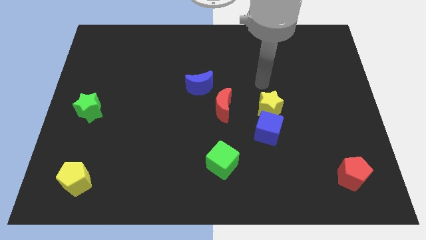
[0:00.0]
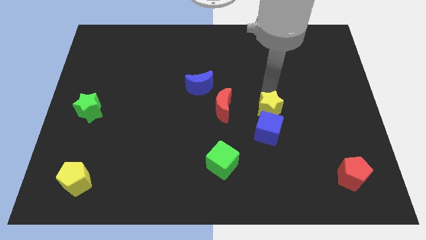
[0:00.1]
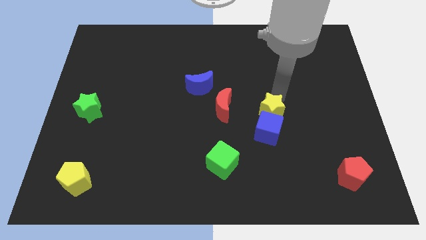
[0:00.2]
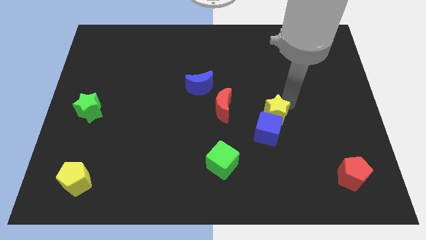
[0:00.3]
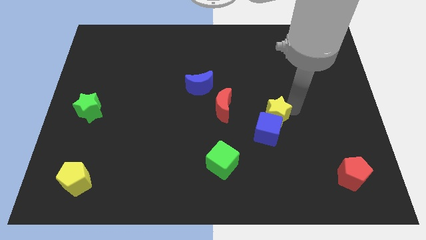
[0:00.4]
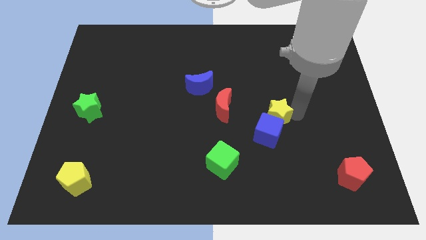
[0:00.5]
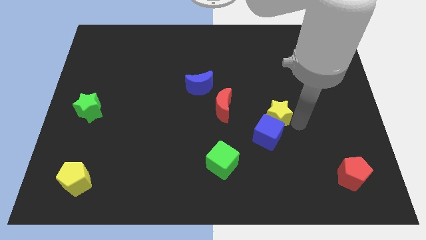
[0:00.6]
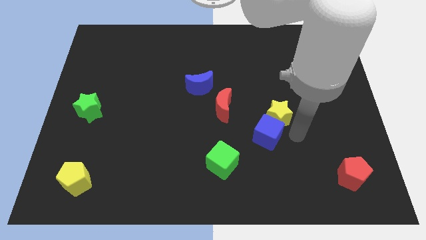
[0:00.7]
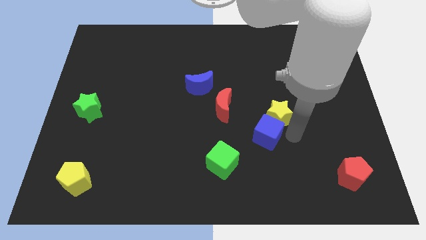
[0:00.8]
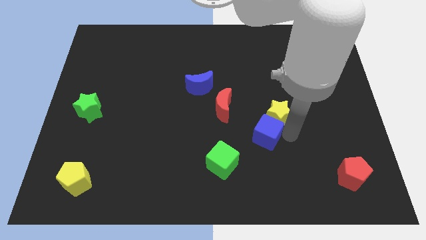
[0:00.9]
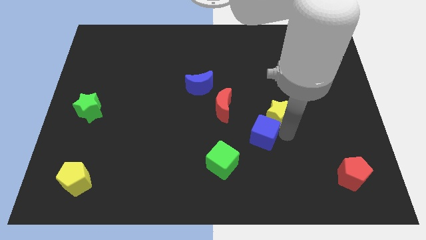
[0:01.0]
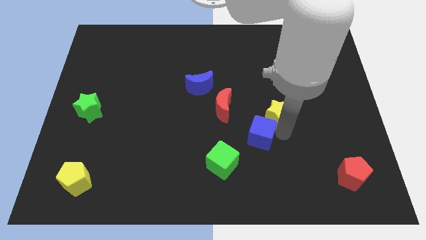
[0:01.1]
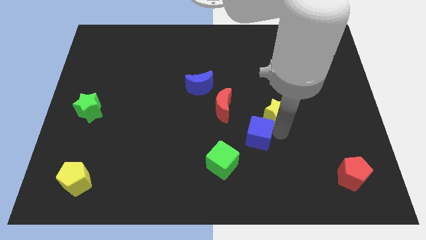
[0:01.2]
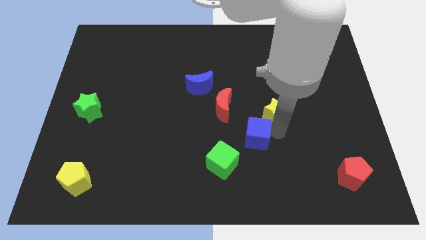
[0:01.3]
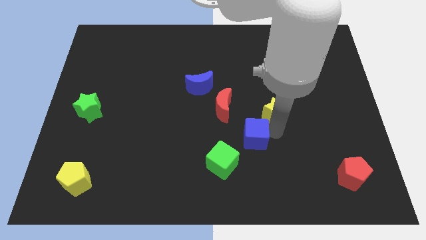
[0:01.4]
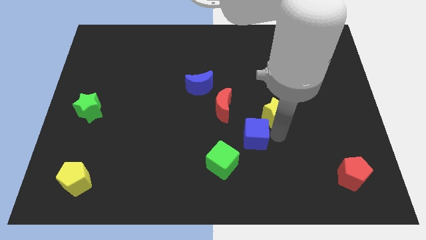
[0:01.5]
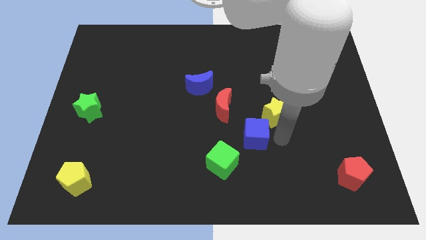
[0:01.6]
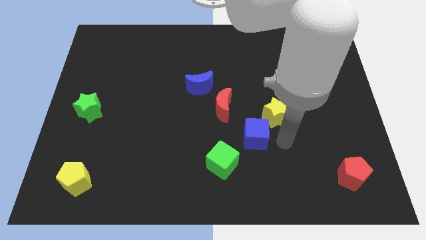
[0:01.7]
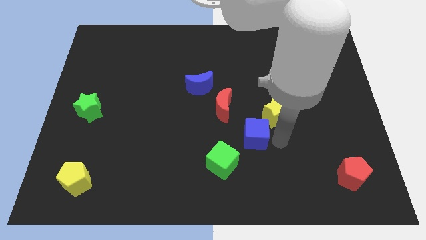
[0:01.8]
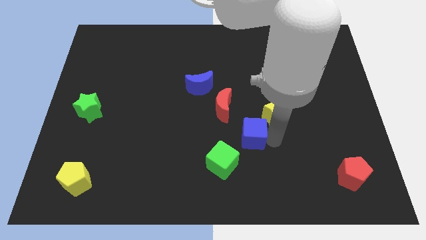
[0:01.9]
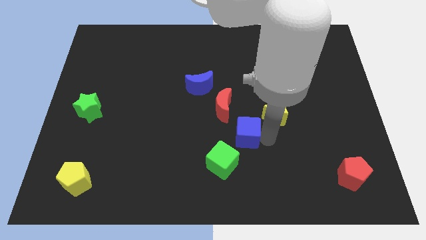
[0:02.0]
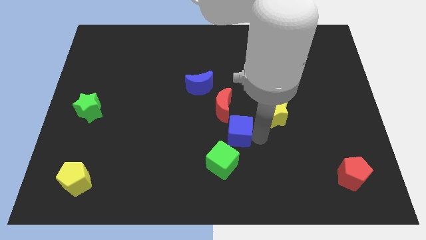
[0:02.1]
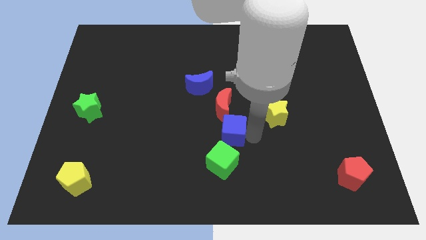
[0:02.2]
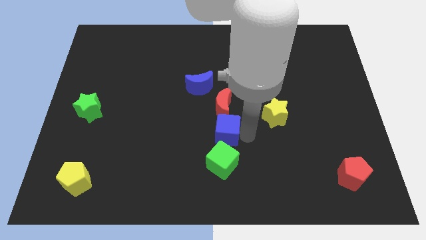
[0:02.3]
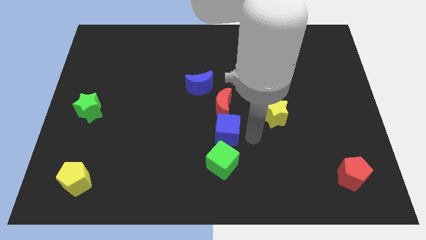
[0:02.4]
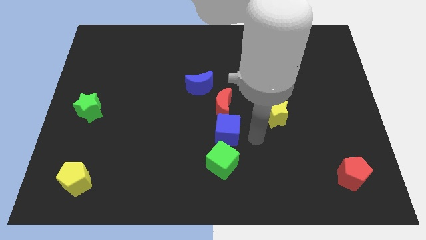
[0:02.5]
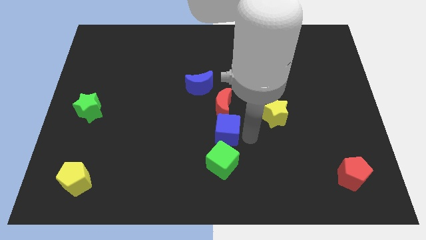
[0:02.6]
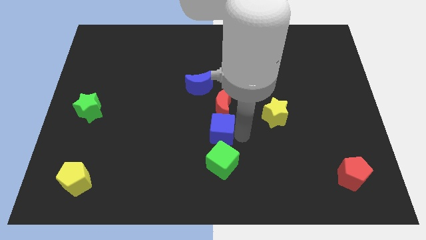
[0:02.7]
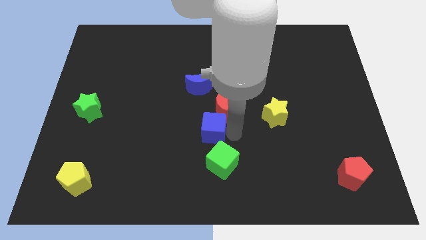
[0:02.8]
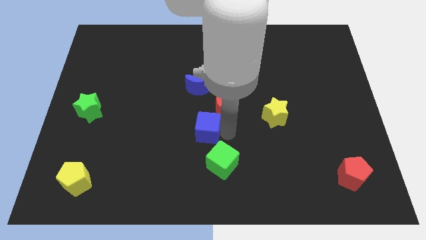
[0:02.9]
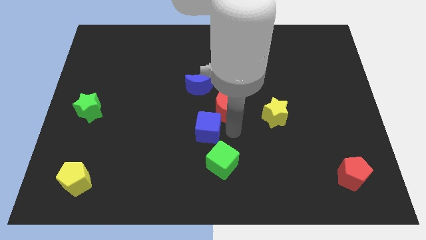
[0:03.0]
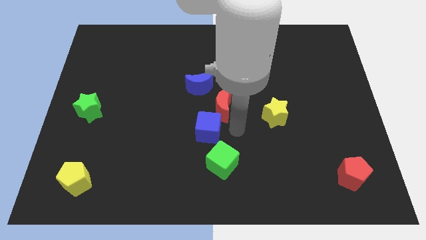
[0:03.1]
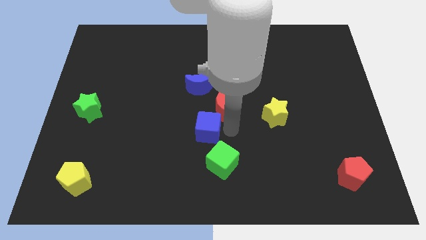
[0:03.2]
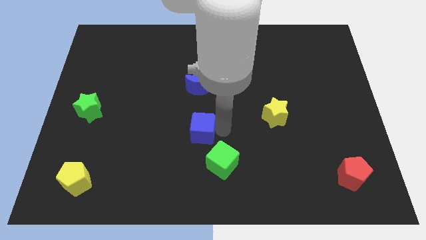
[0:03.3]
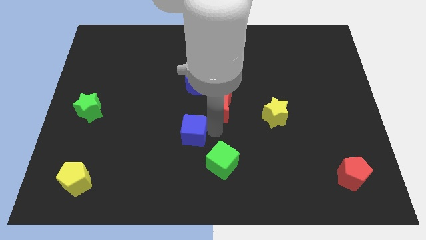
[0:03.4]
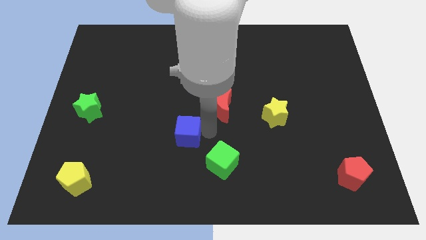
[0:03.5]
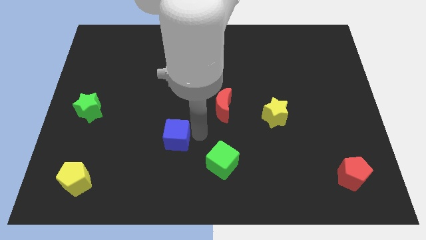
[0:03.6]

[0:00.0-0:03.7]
slide the blue cube left

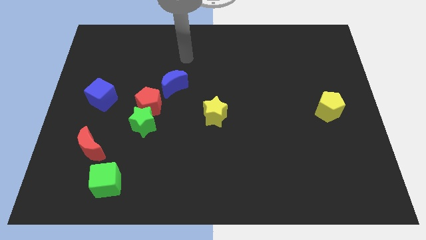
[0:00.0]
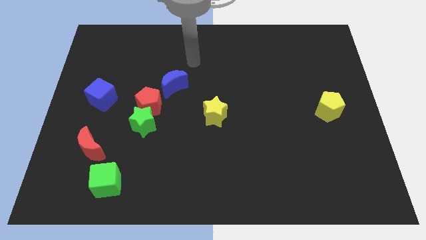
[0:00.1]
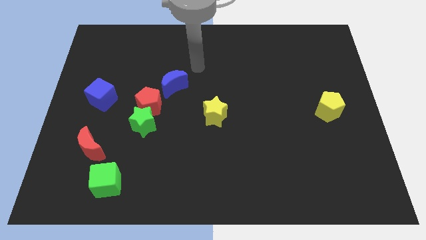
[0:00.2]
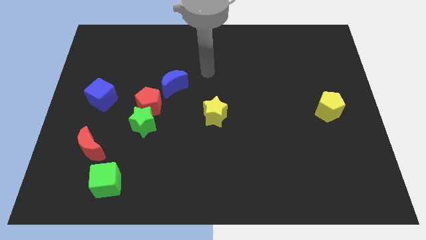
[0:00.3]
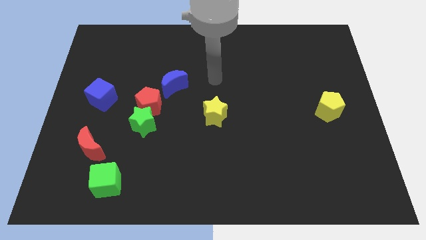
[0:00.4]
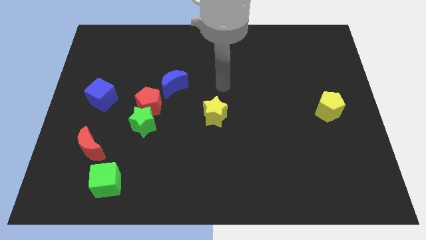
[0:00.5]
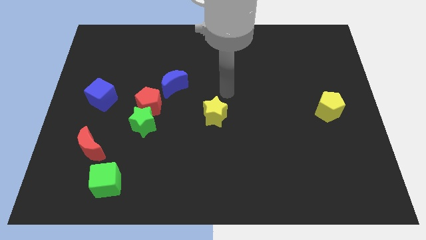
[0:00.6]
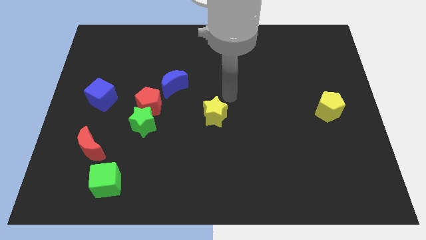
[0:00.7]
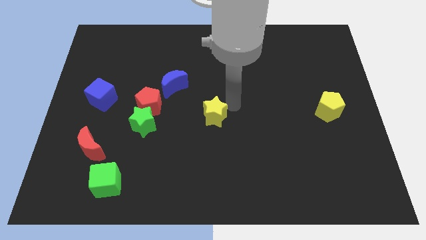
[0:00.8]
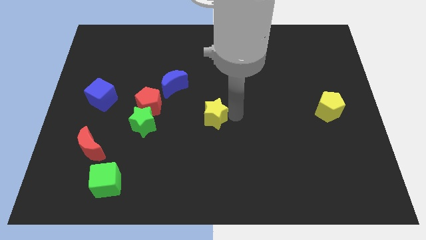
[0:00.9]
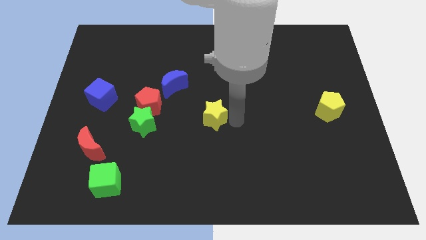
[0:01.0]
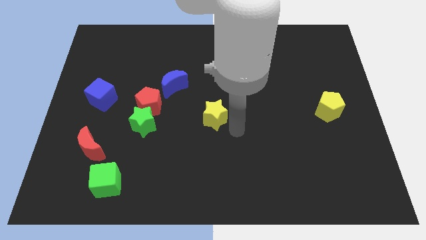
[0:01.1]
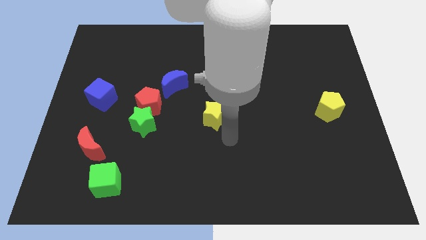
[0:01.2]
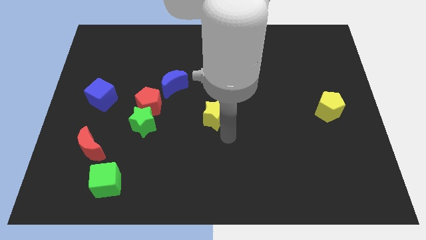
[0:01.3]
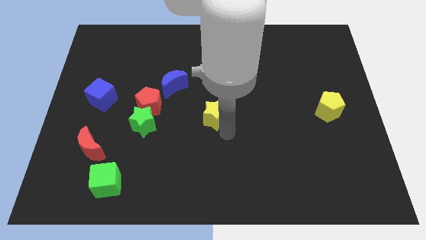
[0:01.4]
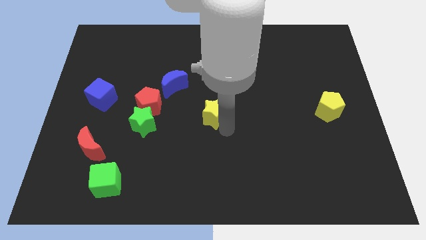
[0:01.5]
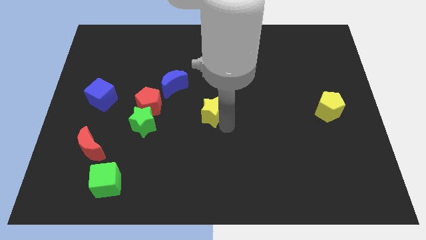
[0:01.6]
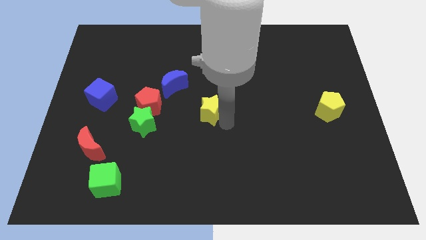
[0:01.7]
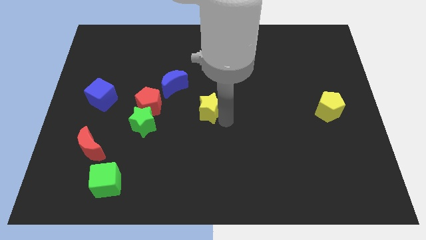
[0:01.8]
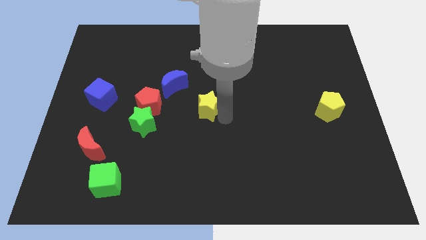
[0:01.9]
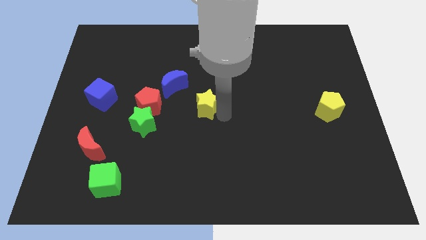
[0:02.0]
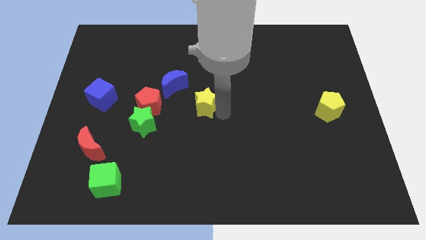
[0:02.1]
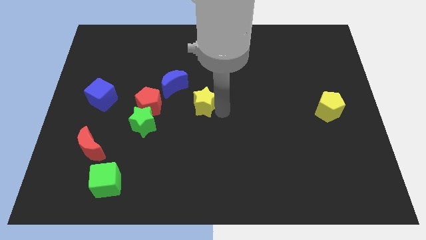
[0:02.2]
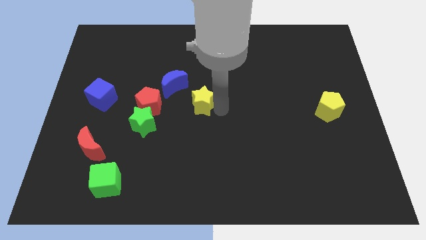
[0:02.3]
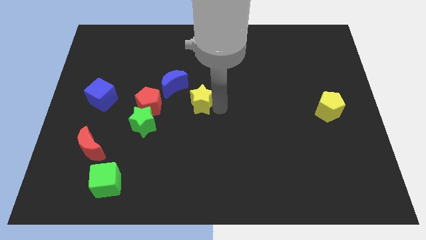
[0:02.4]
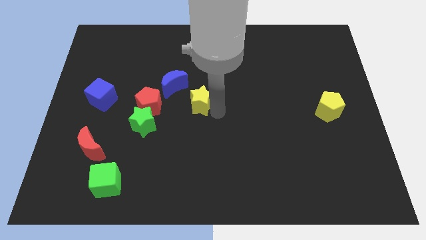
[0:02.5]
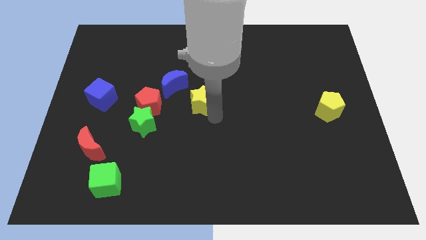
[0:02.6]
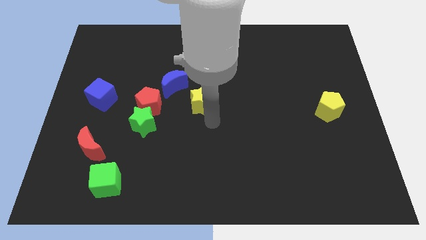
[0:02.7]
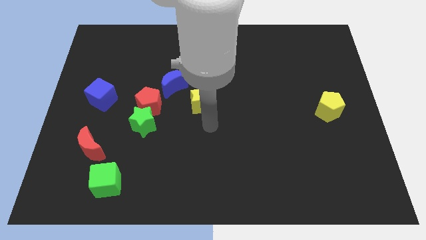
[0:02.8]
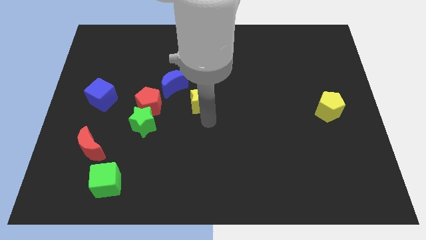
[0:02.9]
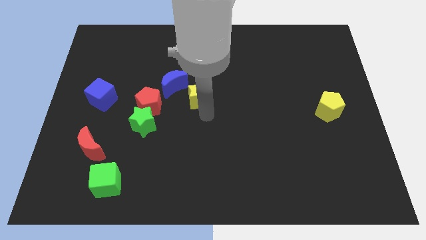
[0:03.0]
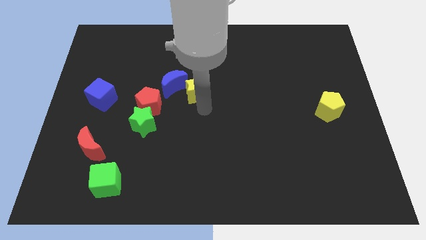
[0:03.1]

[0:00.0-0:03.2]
slide the yellow star a little bit upwards and to the left diagonally

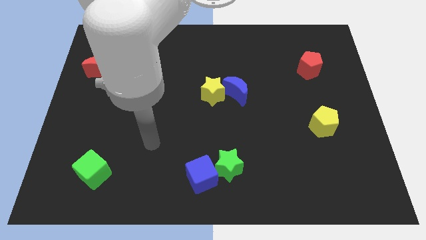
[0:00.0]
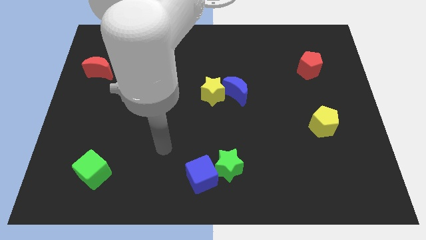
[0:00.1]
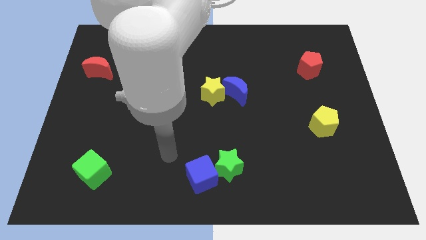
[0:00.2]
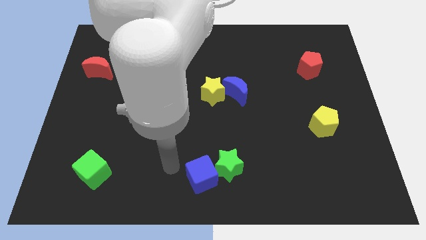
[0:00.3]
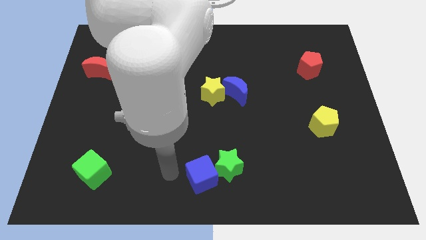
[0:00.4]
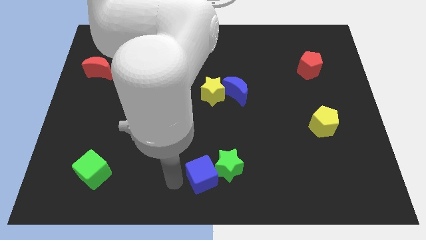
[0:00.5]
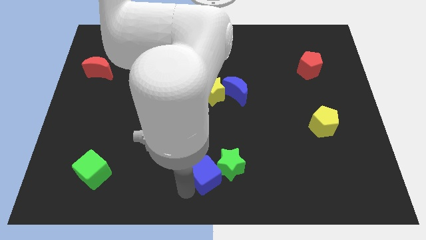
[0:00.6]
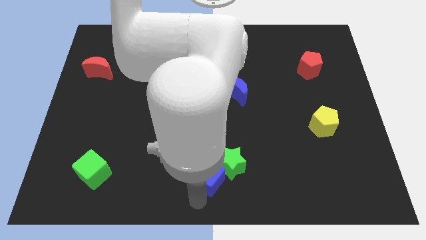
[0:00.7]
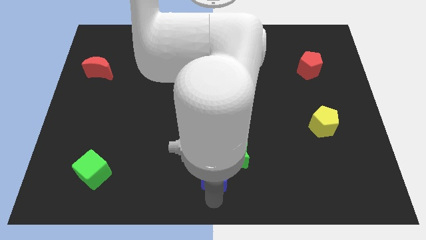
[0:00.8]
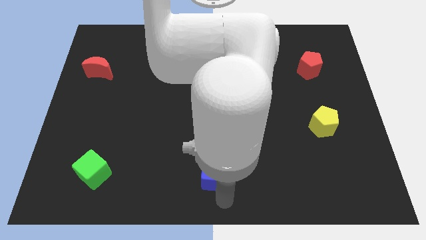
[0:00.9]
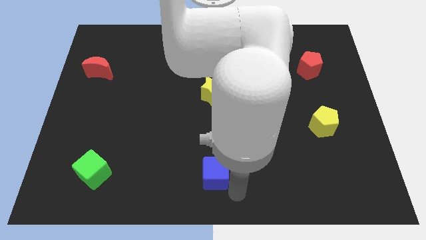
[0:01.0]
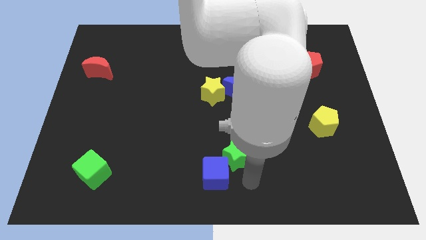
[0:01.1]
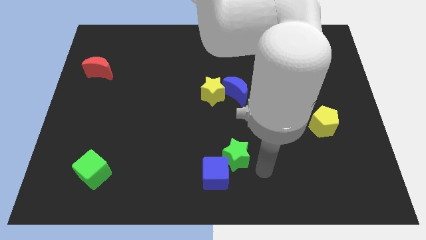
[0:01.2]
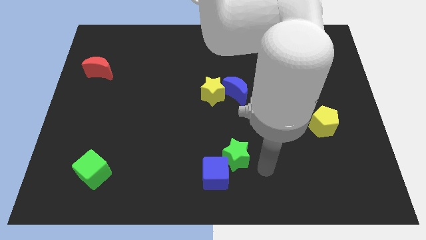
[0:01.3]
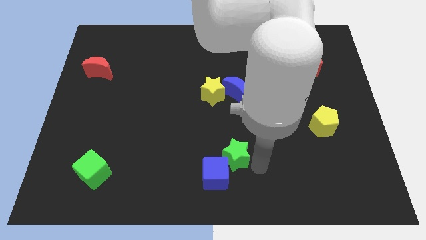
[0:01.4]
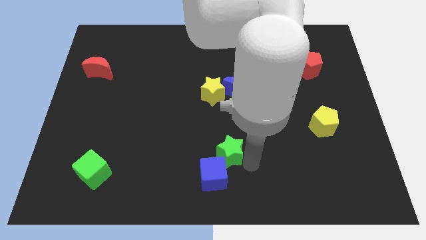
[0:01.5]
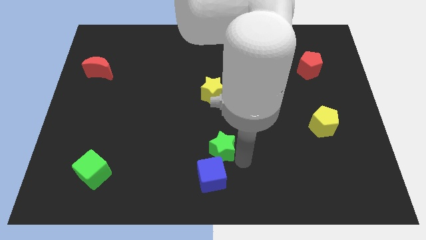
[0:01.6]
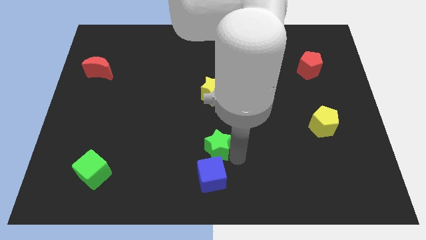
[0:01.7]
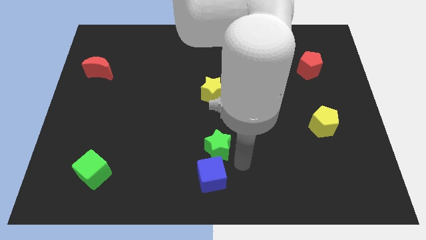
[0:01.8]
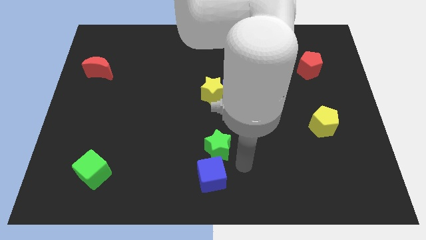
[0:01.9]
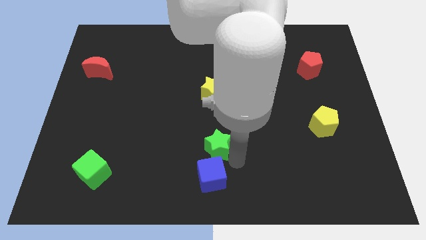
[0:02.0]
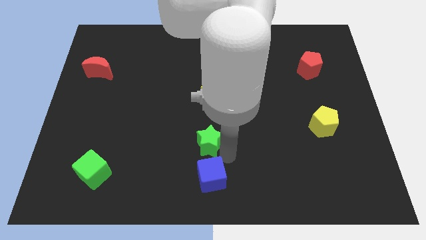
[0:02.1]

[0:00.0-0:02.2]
move the green star a little up and left diagonally
